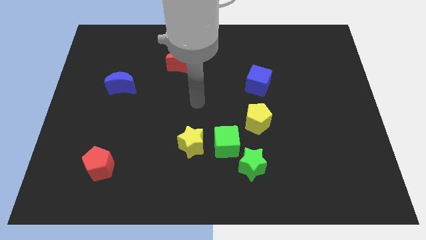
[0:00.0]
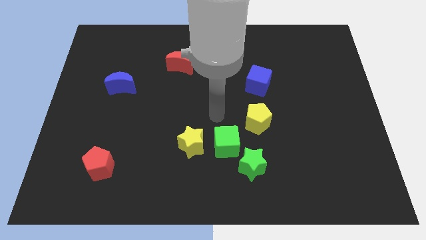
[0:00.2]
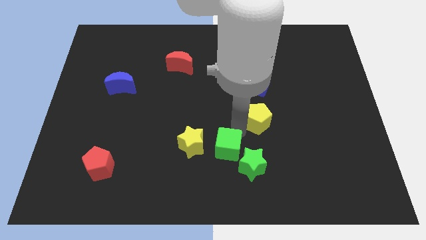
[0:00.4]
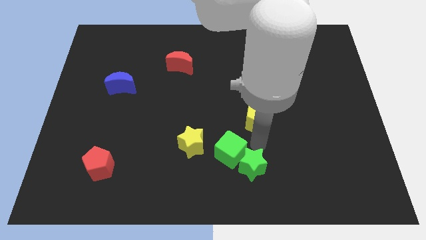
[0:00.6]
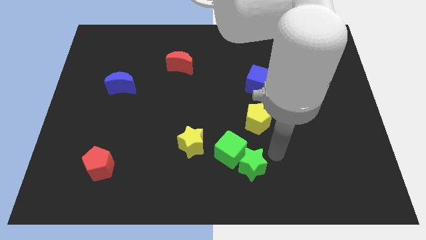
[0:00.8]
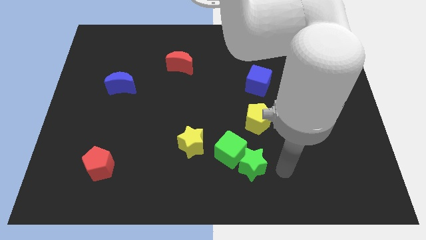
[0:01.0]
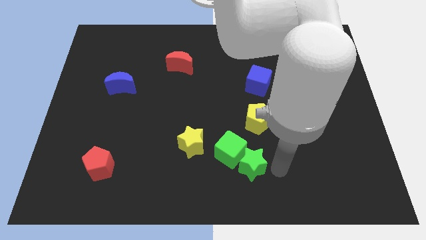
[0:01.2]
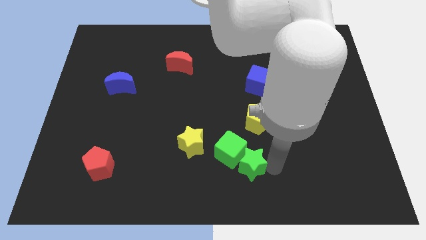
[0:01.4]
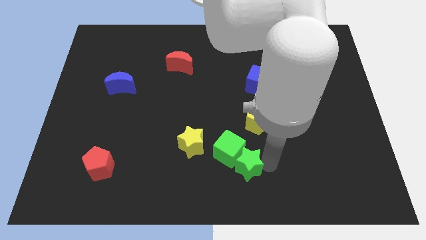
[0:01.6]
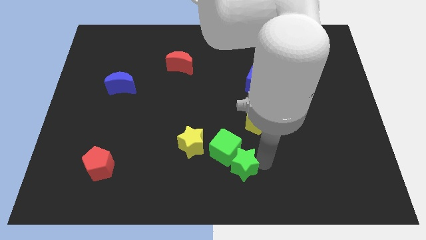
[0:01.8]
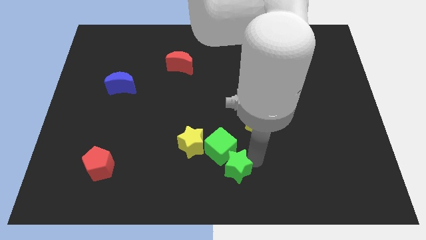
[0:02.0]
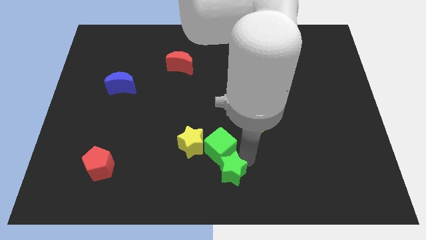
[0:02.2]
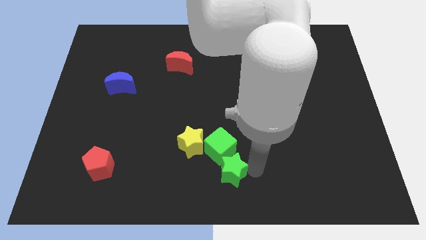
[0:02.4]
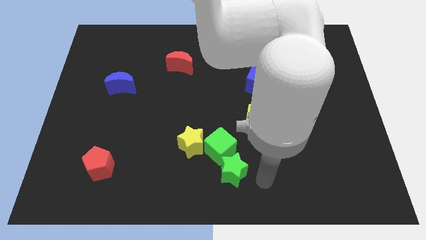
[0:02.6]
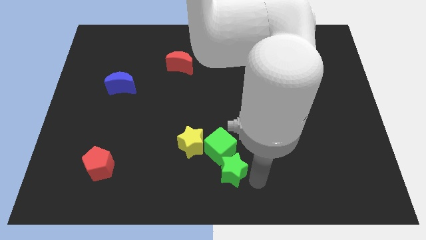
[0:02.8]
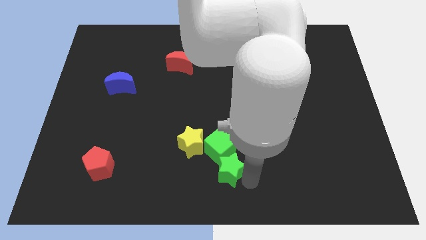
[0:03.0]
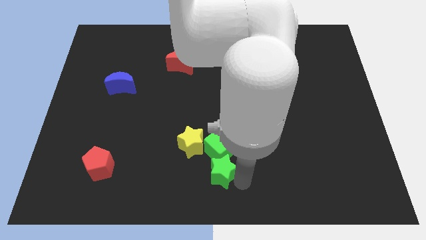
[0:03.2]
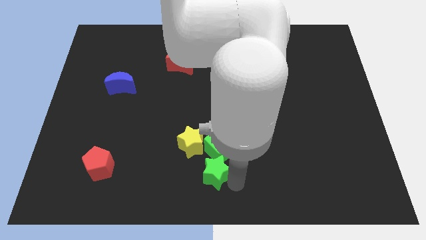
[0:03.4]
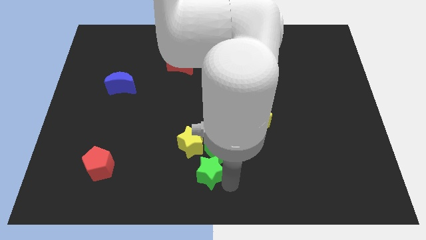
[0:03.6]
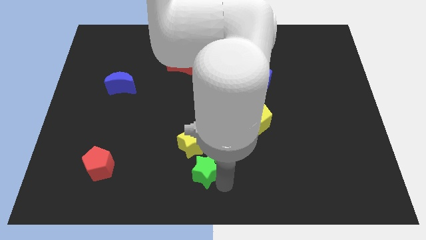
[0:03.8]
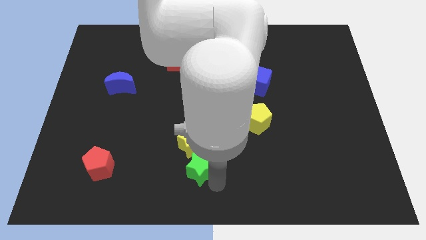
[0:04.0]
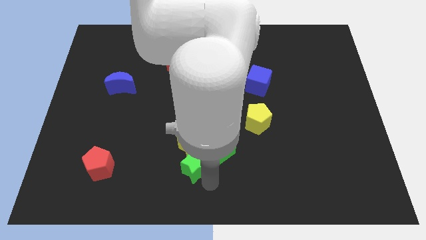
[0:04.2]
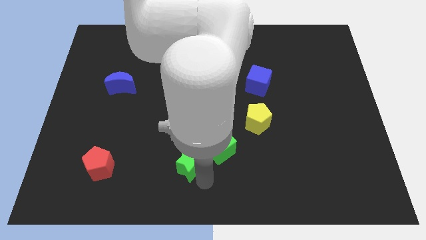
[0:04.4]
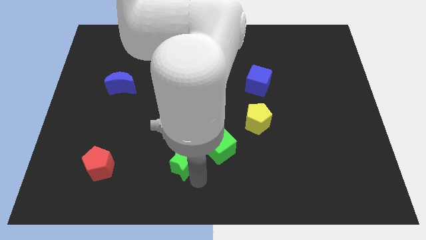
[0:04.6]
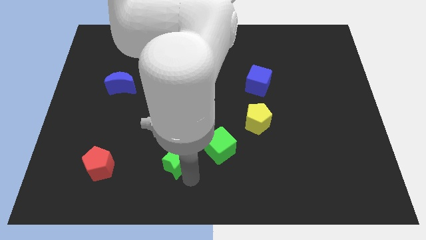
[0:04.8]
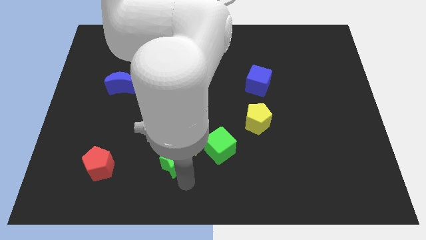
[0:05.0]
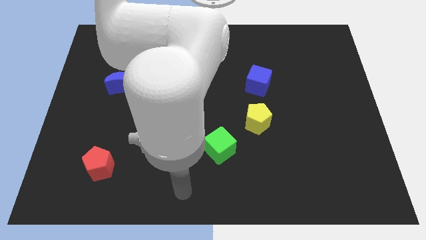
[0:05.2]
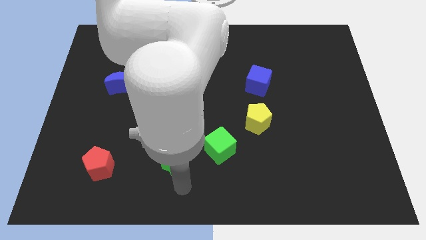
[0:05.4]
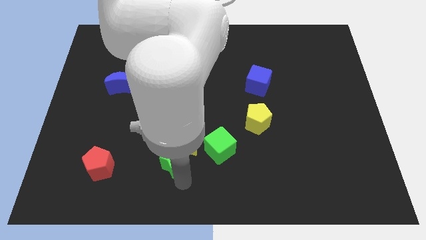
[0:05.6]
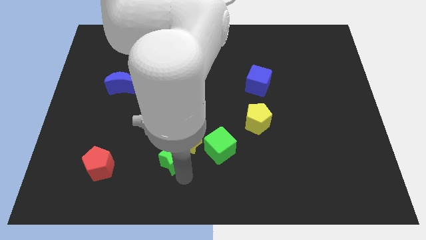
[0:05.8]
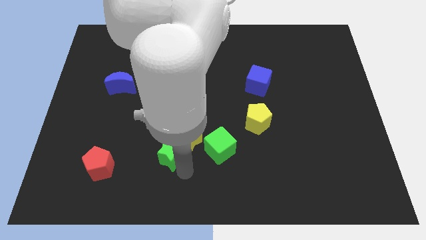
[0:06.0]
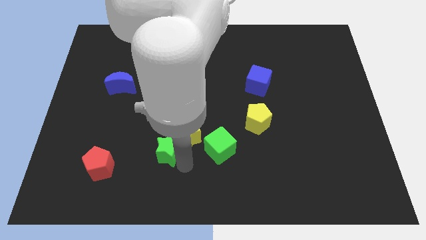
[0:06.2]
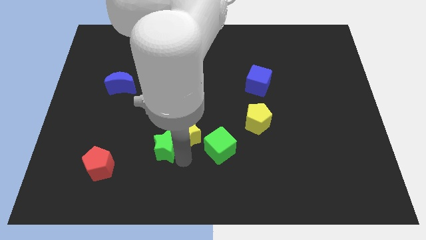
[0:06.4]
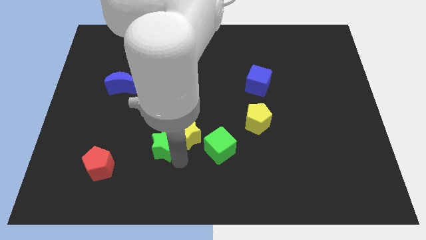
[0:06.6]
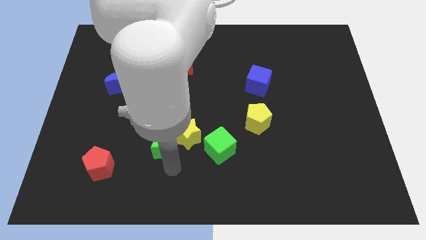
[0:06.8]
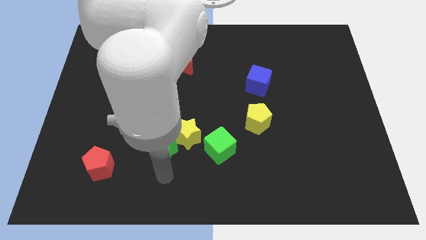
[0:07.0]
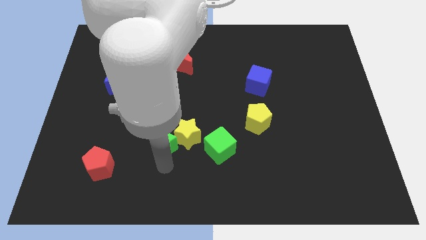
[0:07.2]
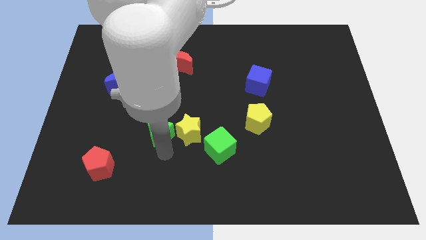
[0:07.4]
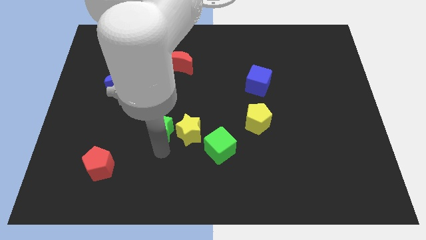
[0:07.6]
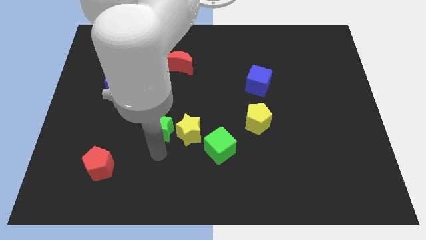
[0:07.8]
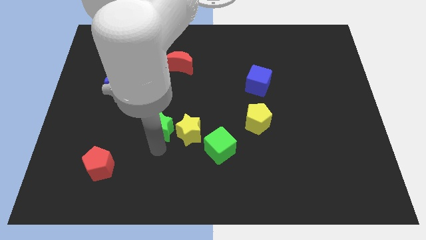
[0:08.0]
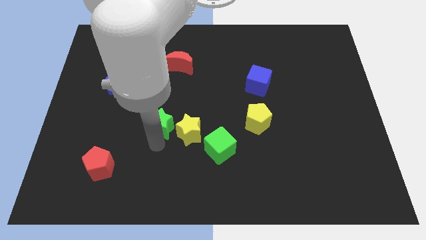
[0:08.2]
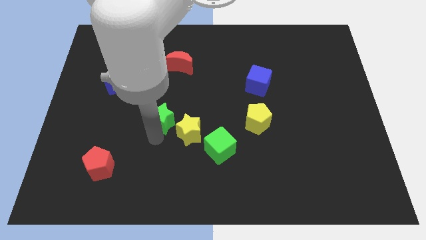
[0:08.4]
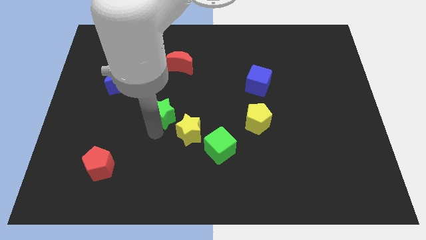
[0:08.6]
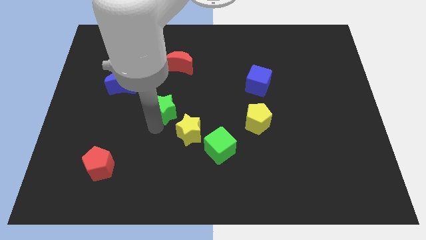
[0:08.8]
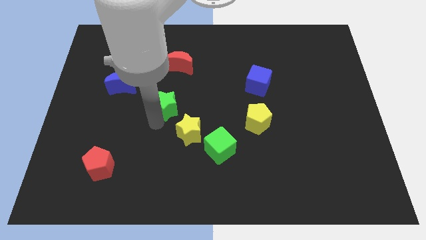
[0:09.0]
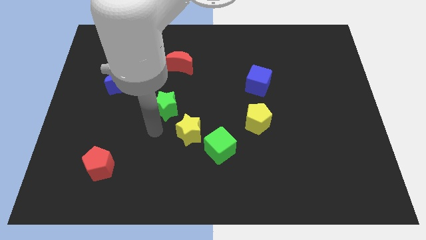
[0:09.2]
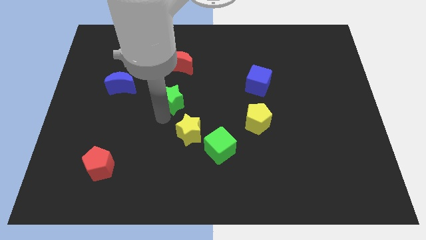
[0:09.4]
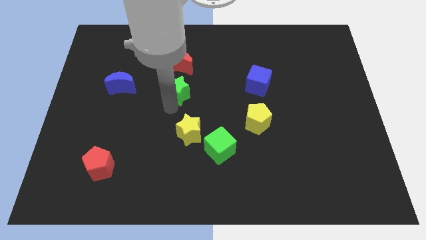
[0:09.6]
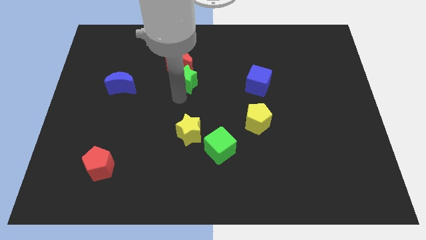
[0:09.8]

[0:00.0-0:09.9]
move the green star close to the red moon

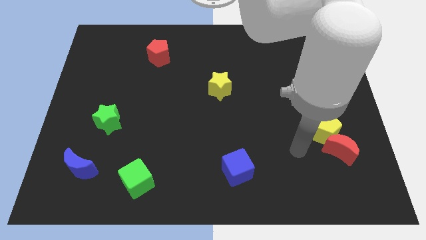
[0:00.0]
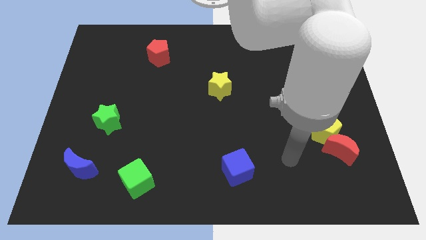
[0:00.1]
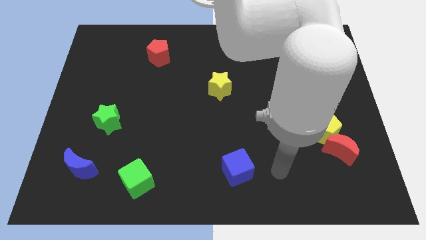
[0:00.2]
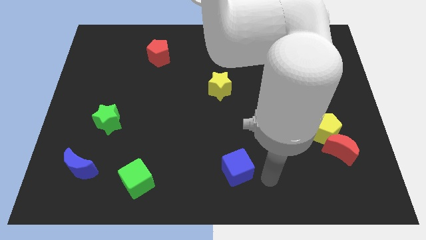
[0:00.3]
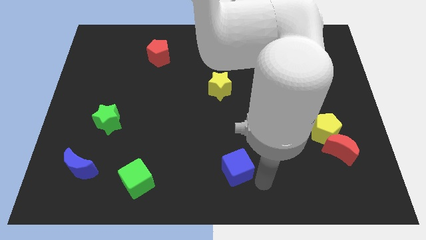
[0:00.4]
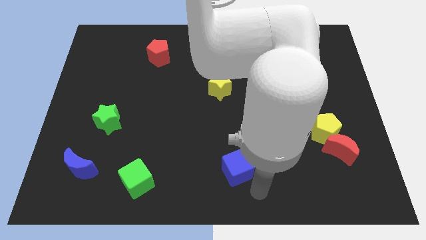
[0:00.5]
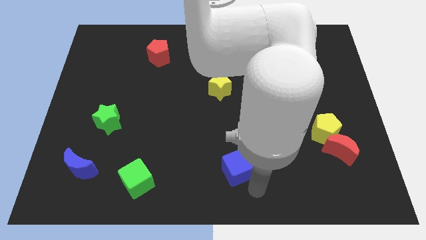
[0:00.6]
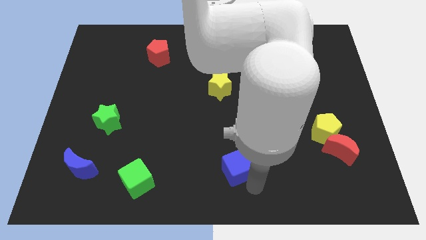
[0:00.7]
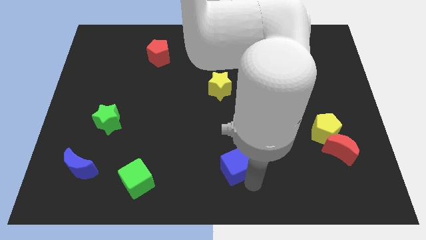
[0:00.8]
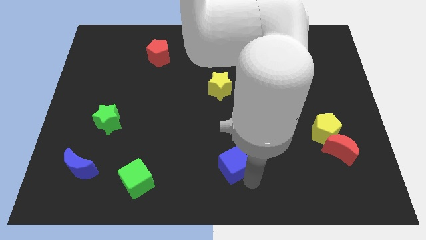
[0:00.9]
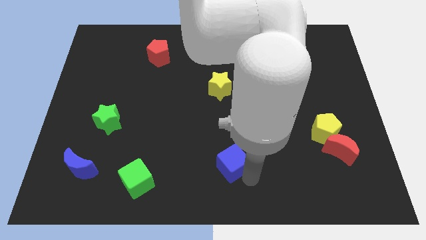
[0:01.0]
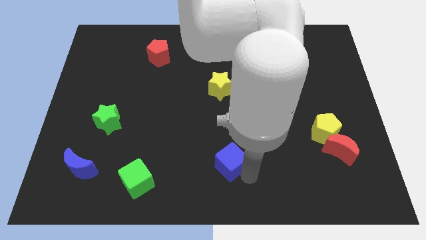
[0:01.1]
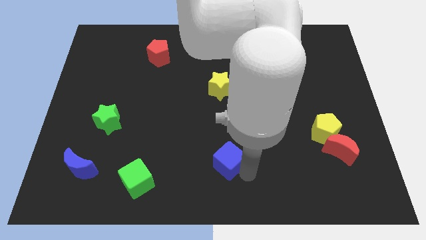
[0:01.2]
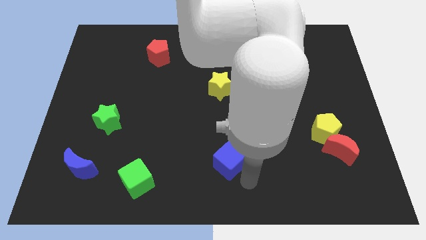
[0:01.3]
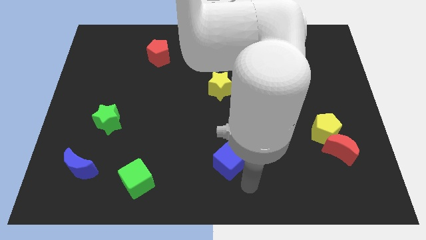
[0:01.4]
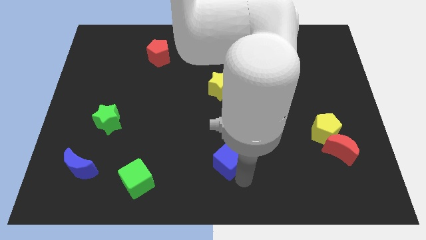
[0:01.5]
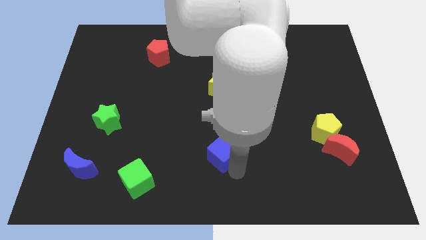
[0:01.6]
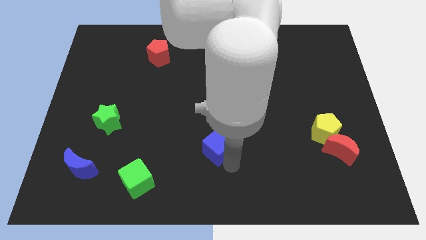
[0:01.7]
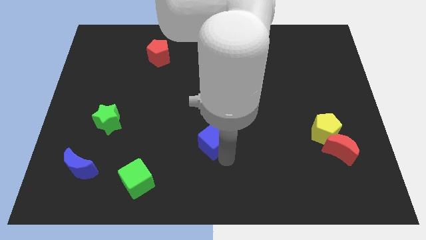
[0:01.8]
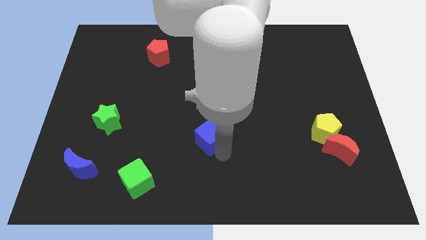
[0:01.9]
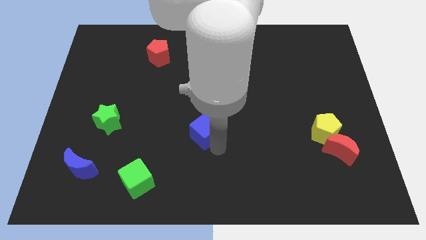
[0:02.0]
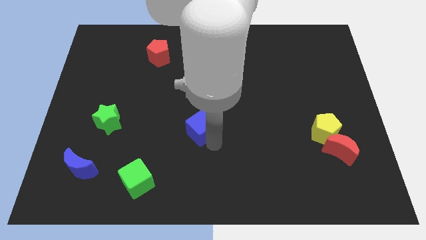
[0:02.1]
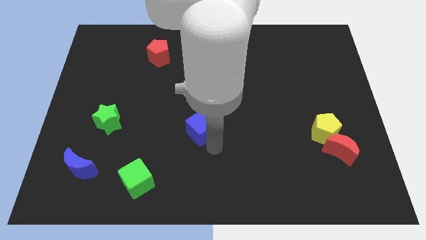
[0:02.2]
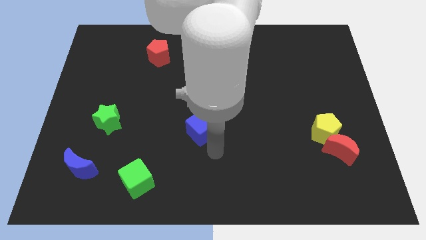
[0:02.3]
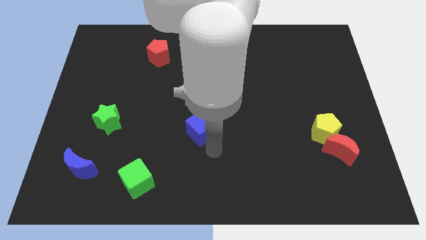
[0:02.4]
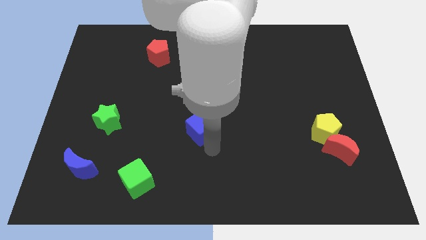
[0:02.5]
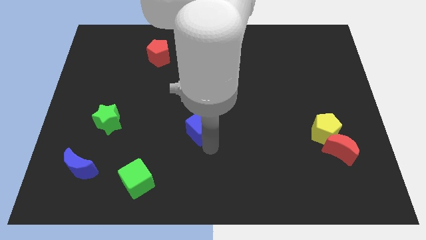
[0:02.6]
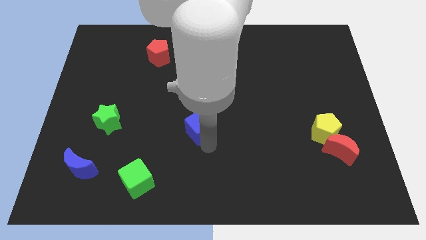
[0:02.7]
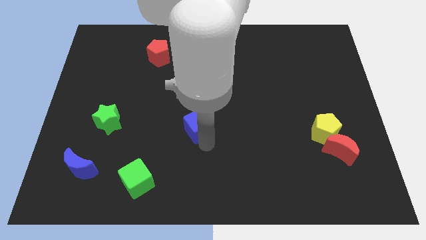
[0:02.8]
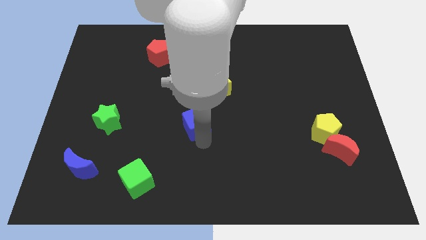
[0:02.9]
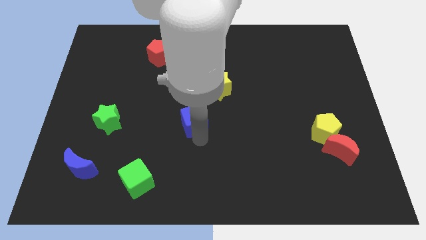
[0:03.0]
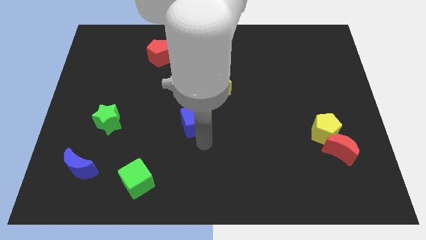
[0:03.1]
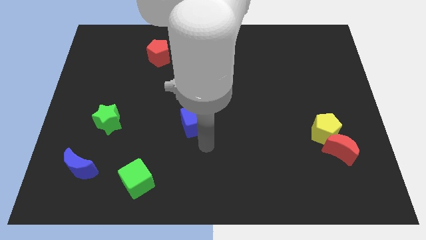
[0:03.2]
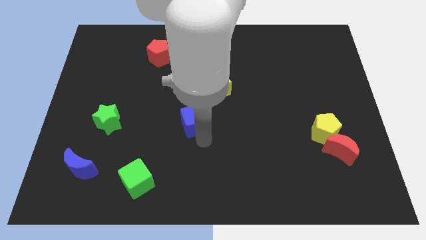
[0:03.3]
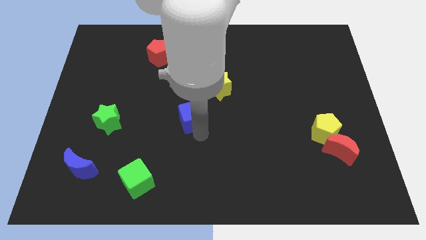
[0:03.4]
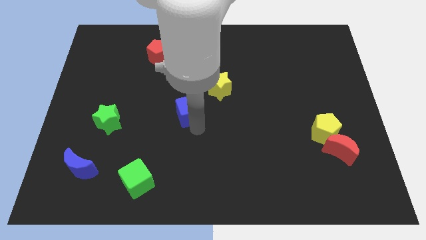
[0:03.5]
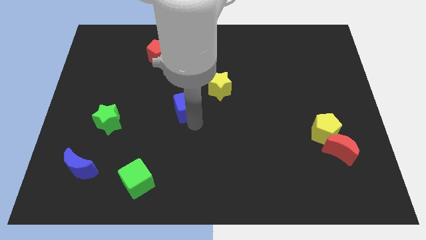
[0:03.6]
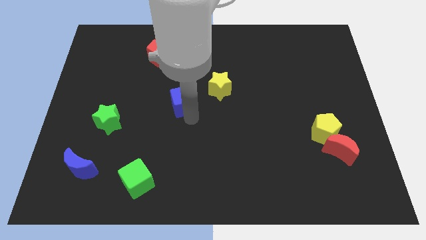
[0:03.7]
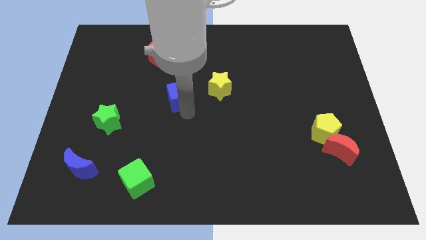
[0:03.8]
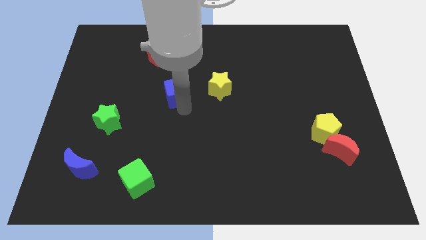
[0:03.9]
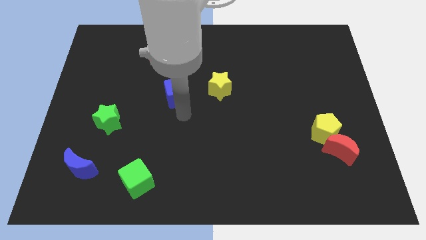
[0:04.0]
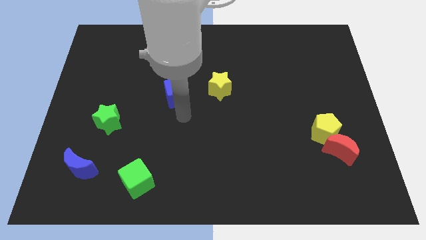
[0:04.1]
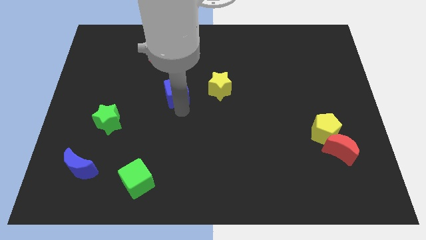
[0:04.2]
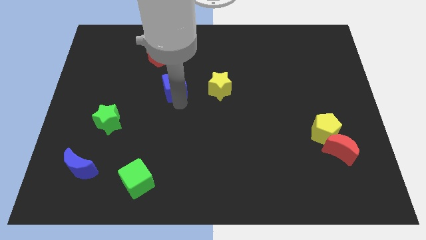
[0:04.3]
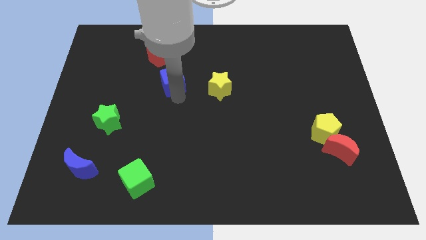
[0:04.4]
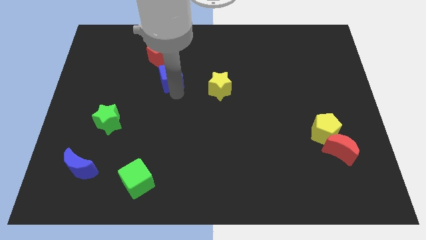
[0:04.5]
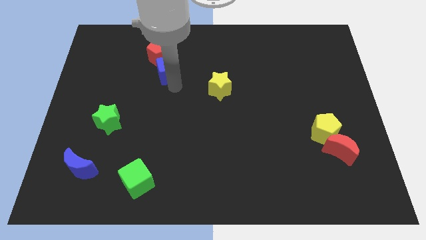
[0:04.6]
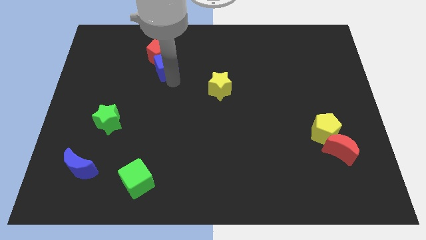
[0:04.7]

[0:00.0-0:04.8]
slide the blue cube close to the red pentagon
